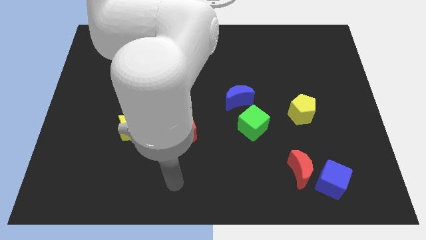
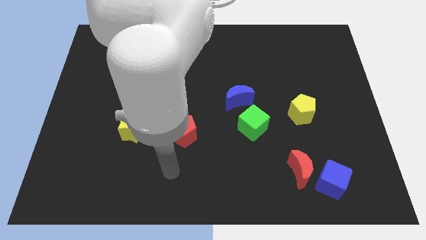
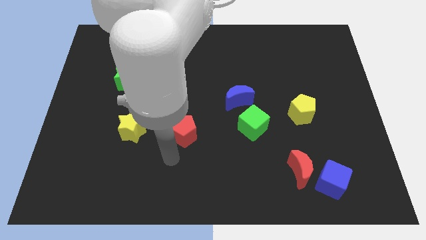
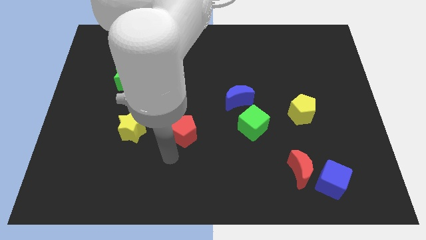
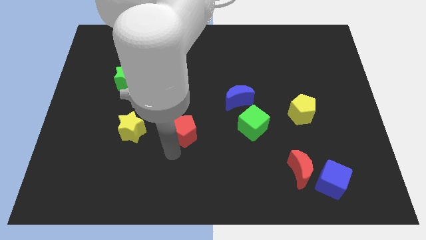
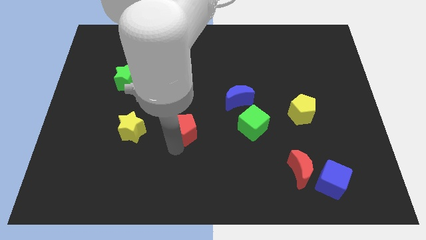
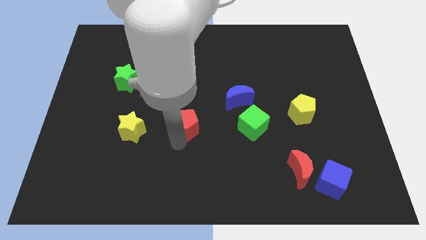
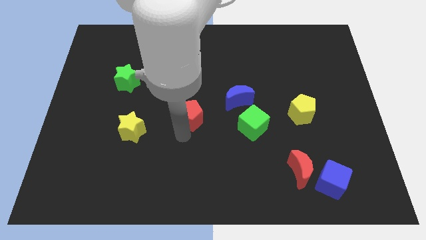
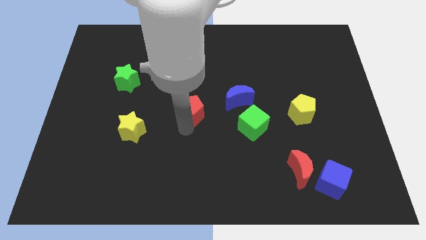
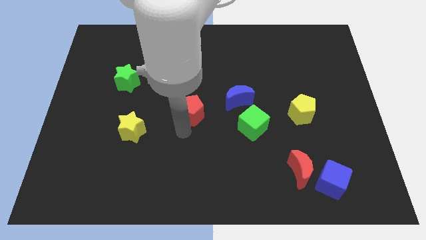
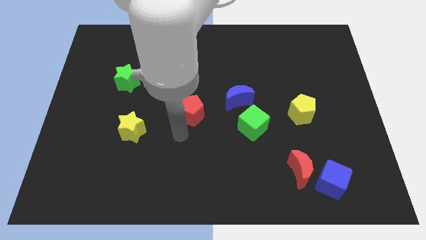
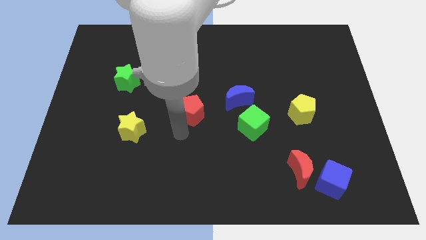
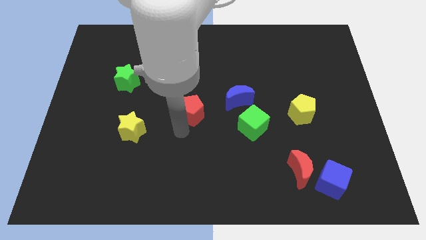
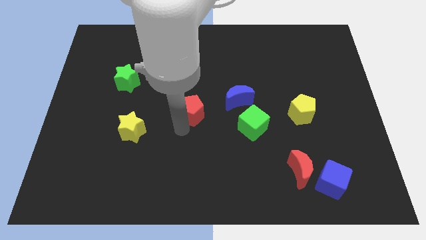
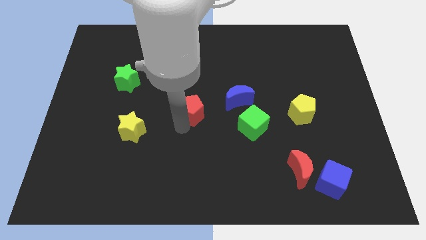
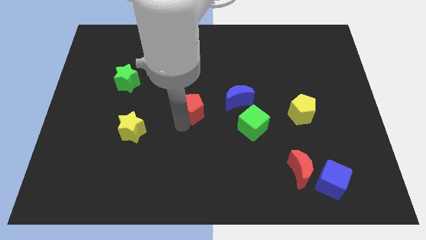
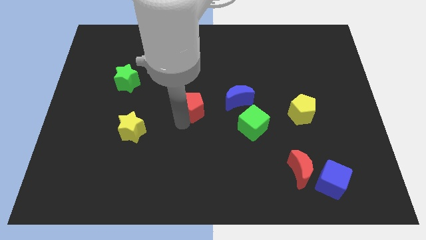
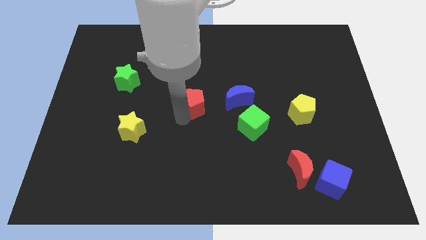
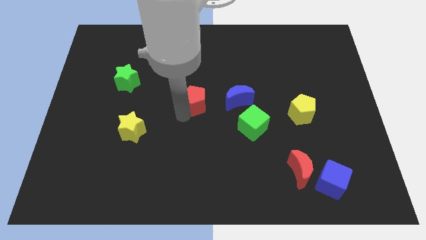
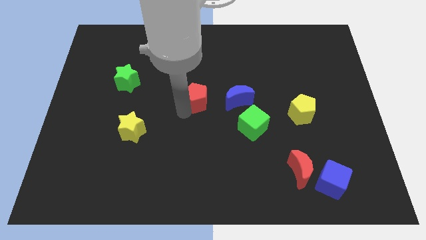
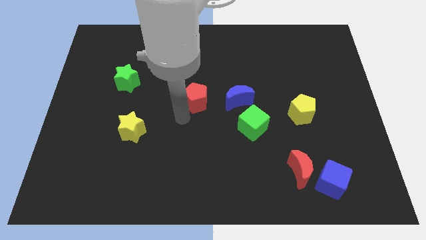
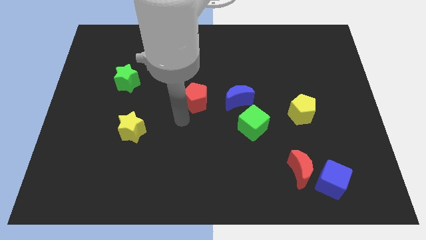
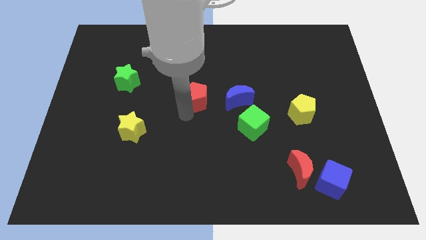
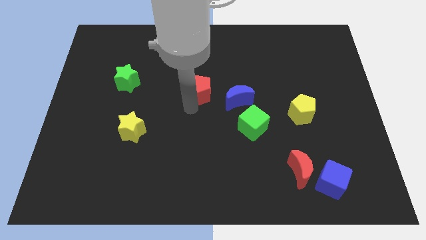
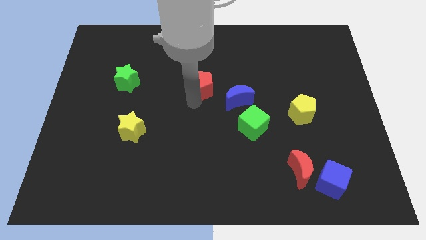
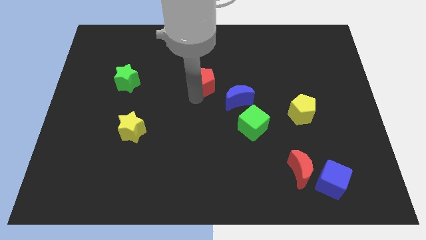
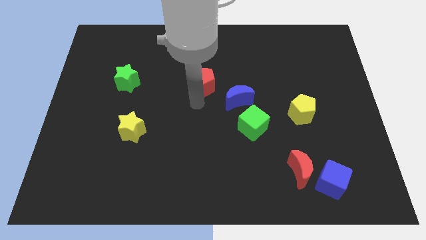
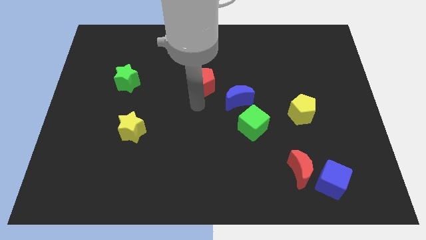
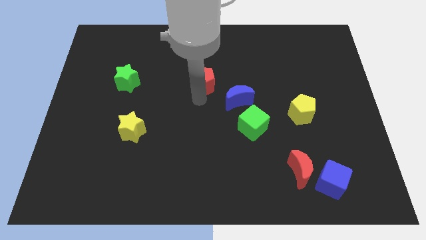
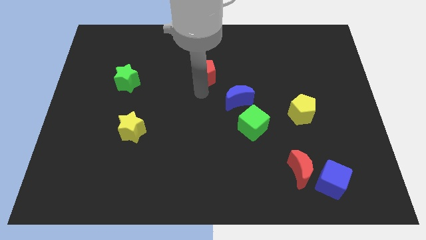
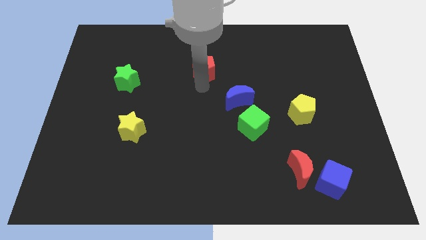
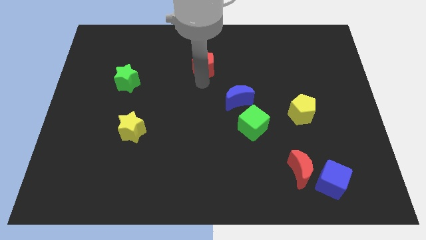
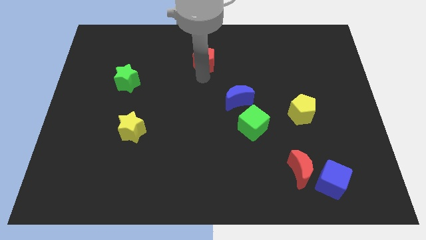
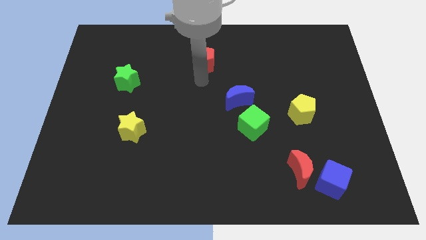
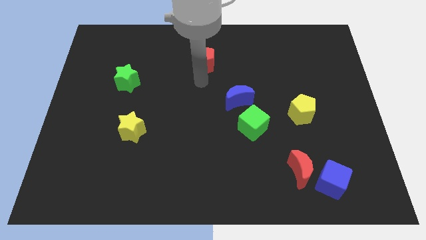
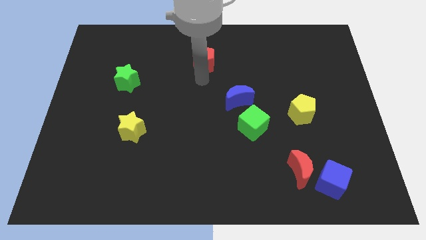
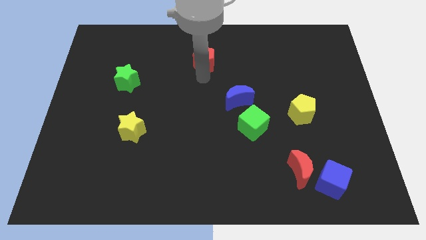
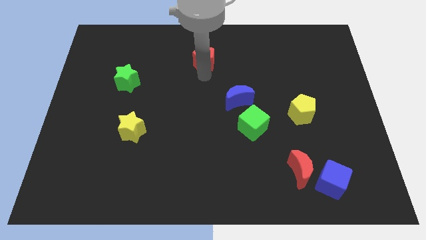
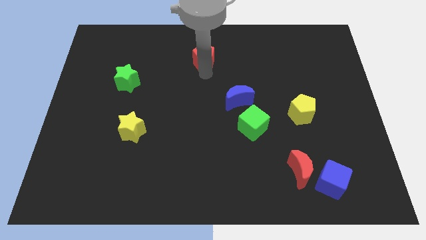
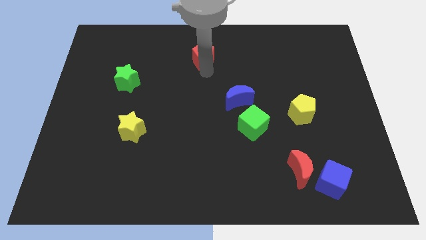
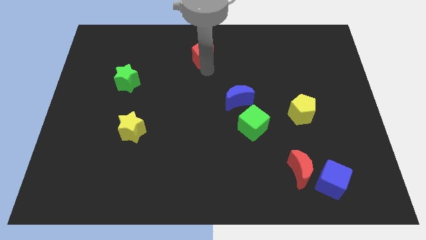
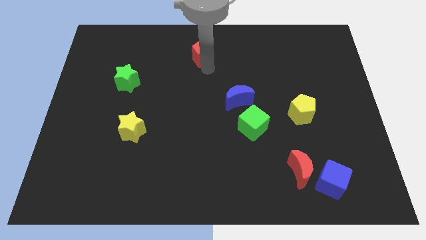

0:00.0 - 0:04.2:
push the red pentagon to the top side

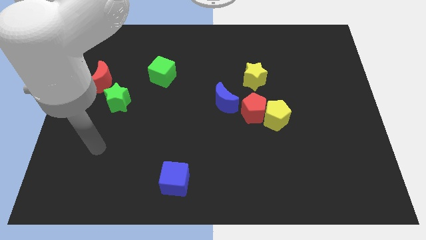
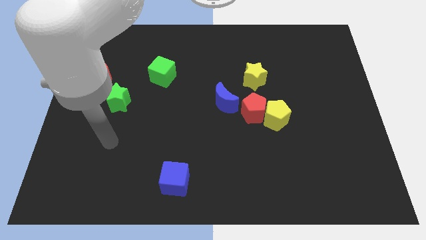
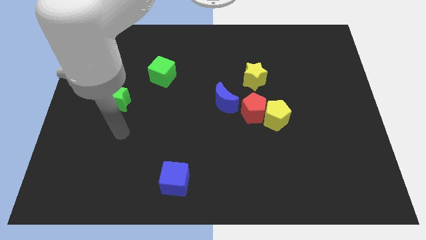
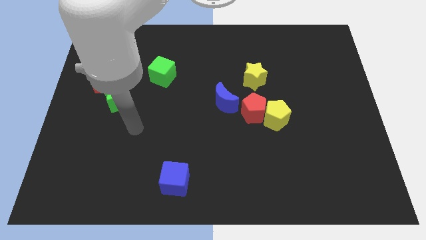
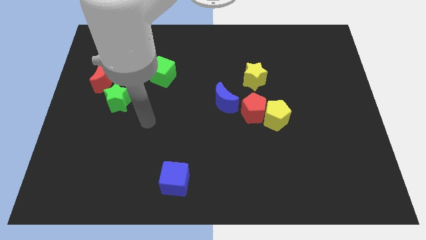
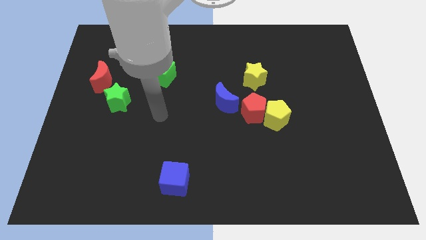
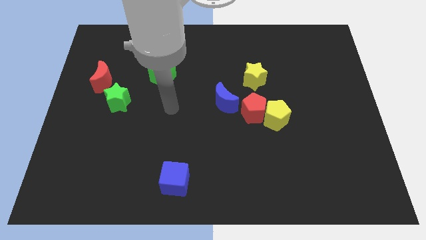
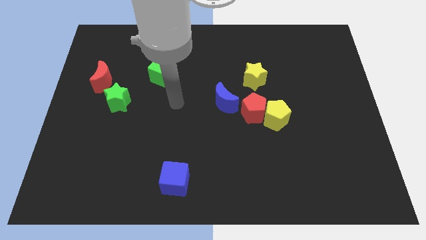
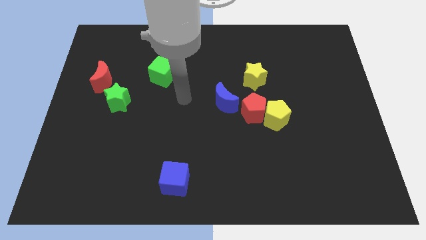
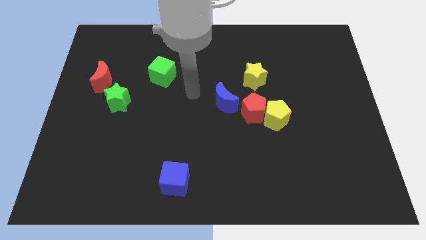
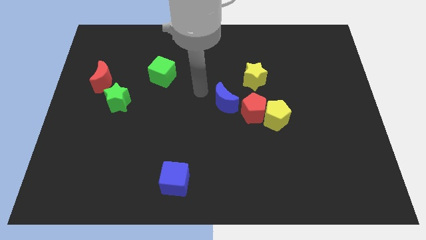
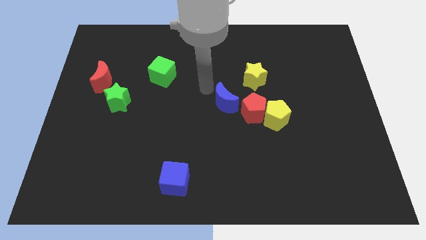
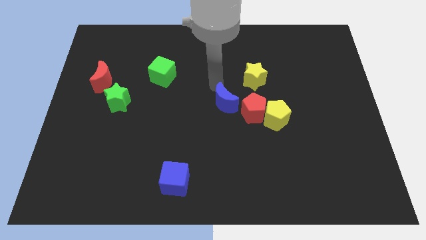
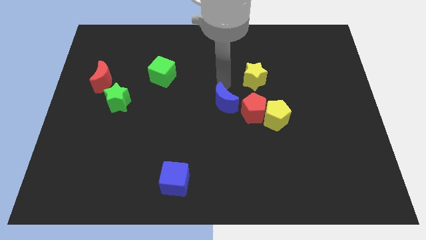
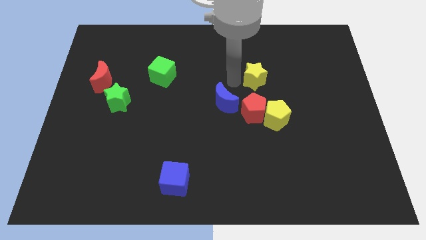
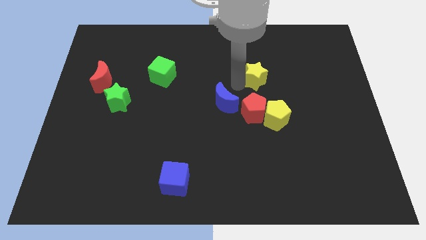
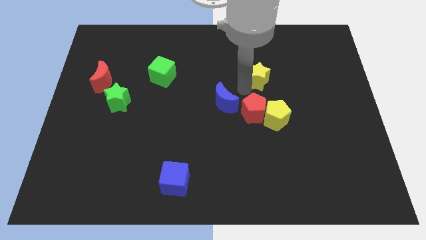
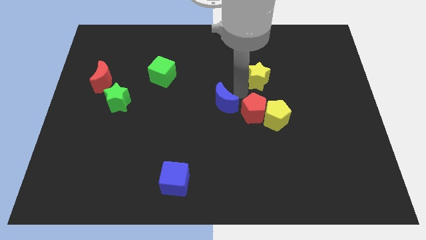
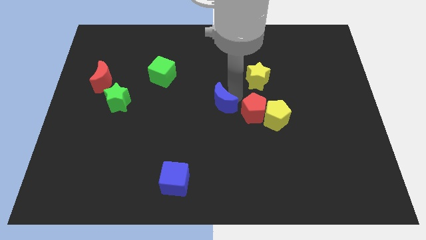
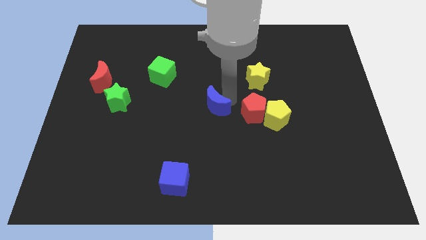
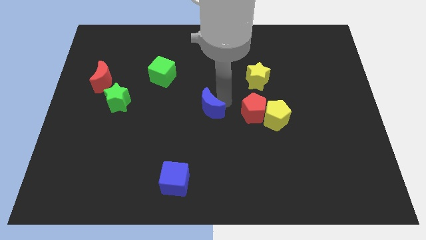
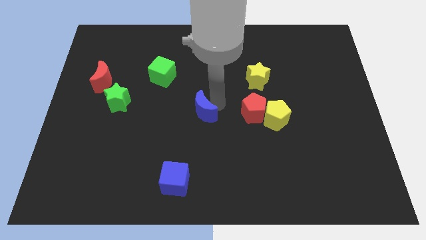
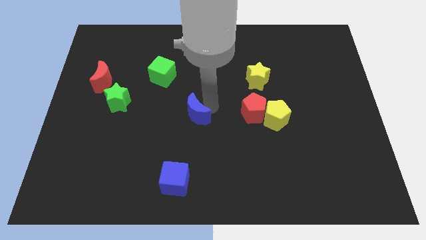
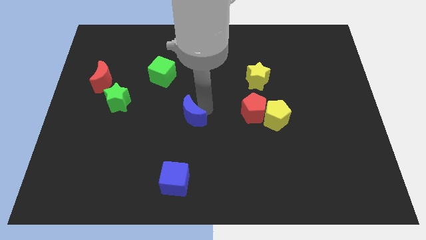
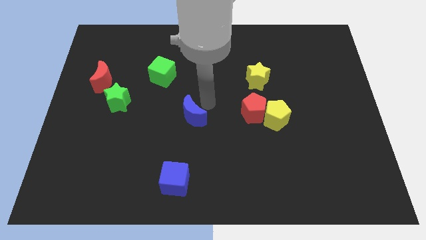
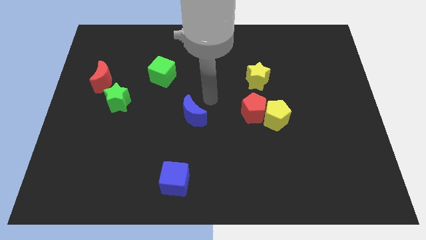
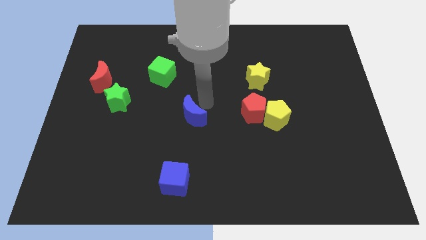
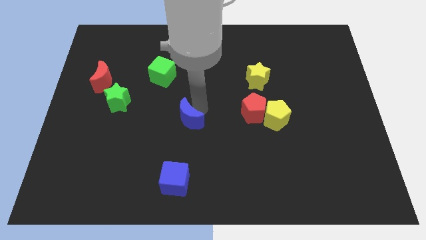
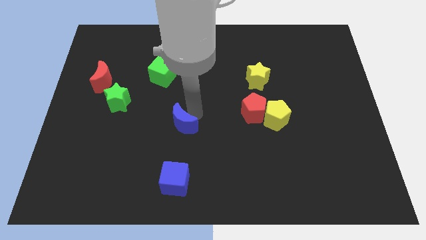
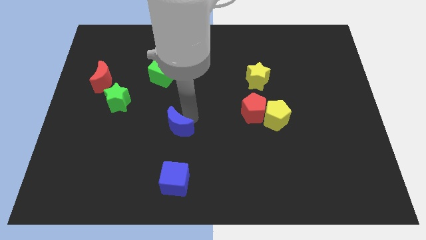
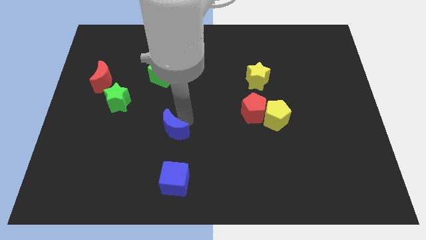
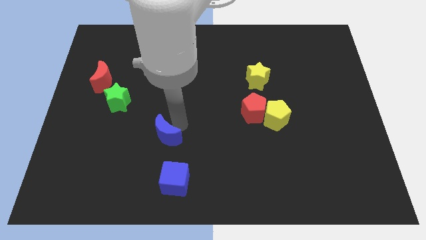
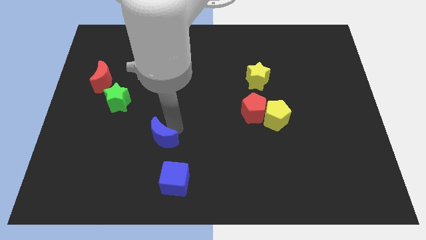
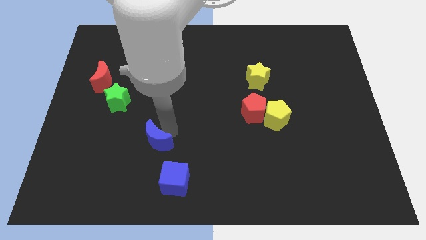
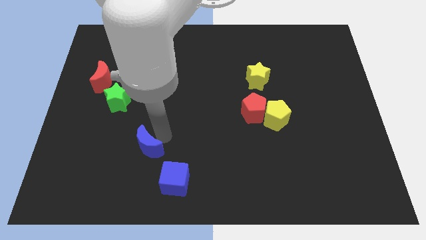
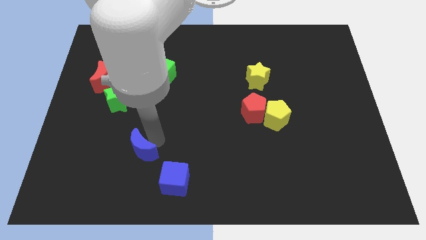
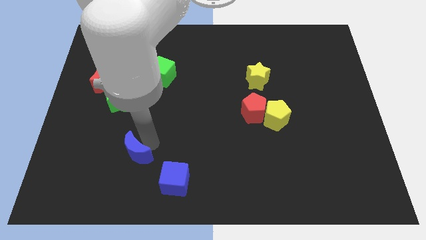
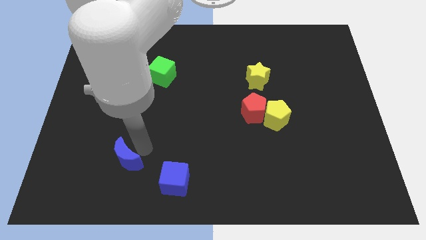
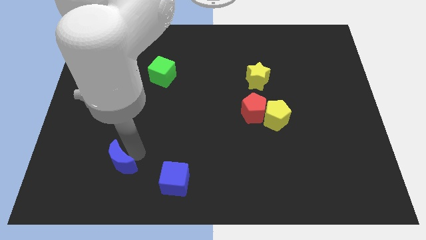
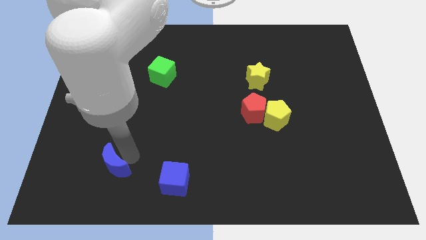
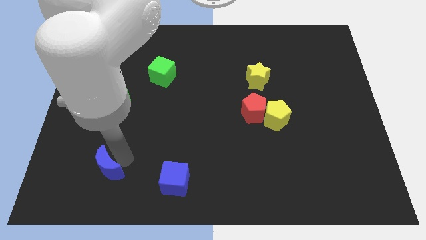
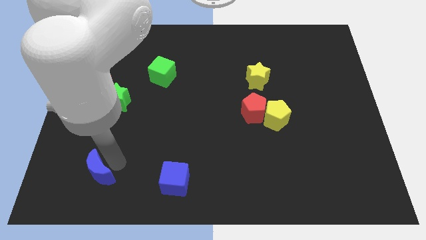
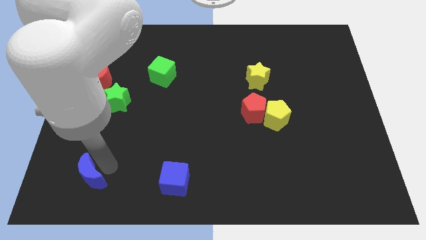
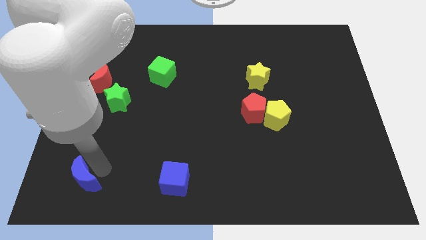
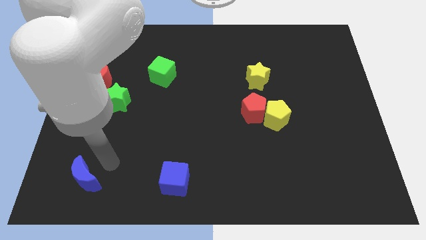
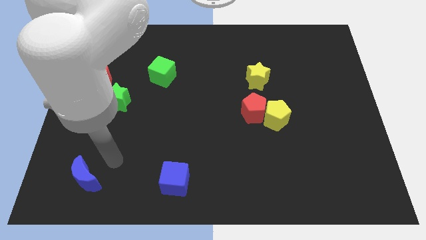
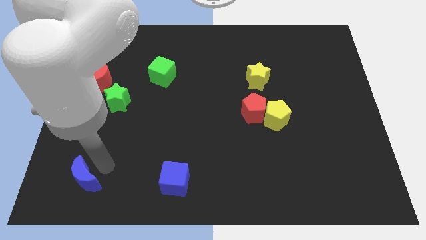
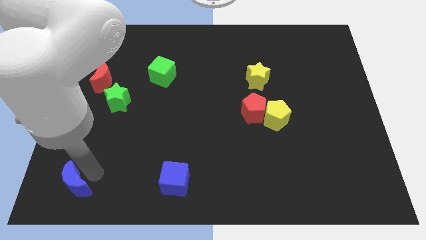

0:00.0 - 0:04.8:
move the blue moon to the bottom left corner
